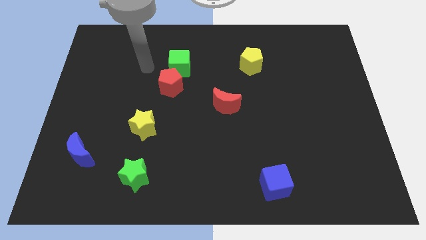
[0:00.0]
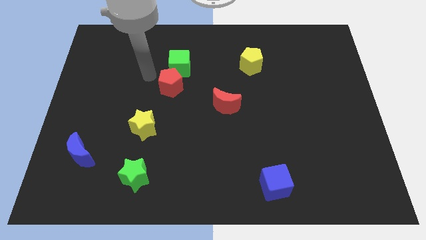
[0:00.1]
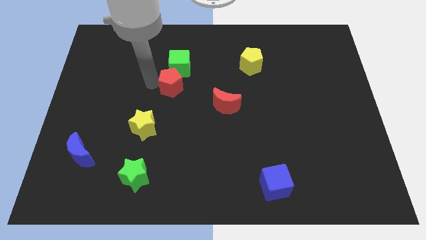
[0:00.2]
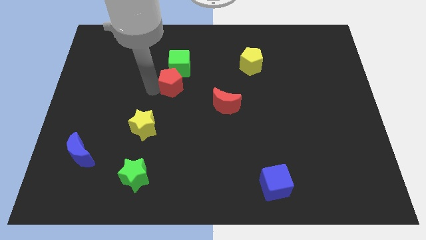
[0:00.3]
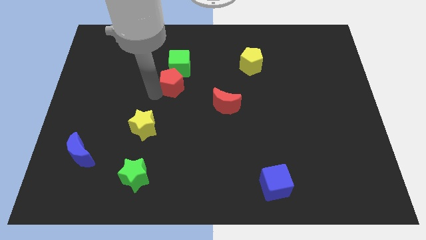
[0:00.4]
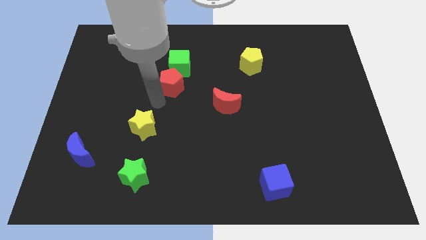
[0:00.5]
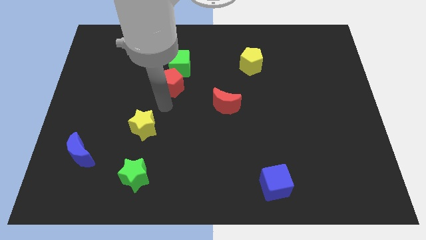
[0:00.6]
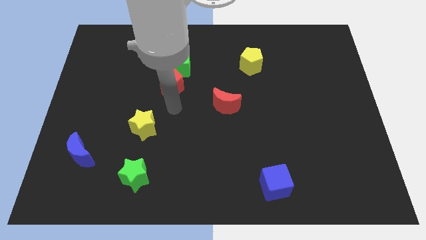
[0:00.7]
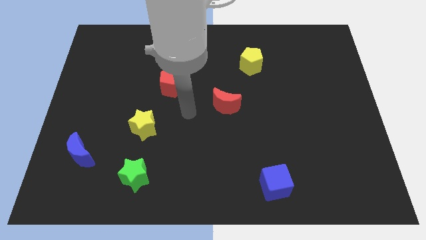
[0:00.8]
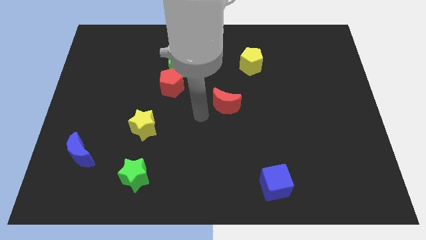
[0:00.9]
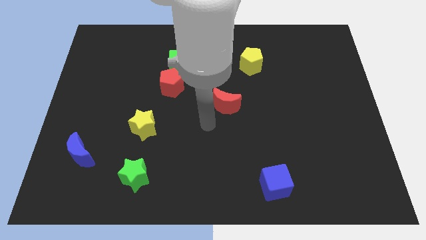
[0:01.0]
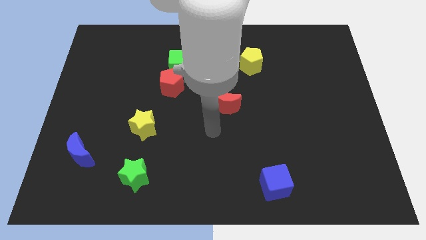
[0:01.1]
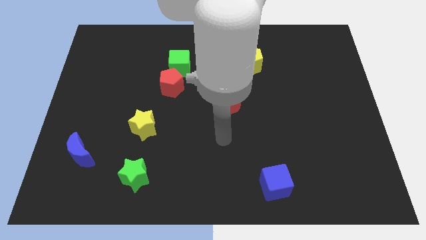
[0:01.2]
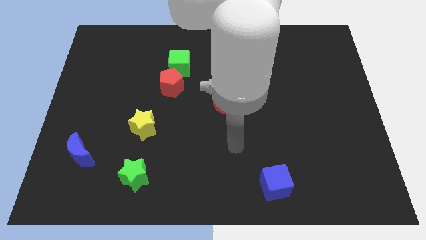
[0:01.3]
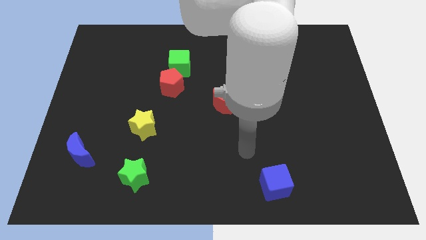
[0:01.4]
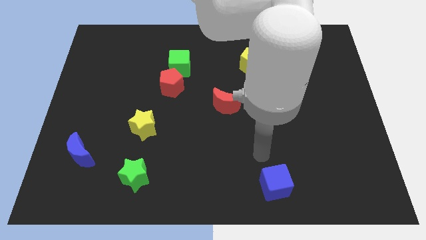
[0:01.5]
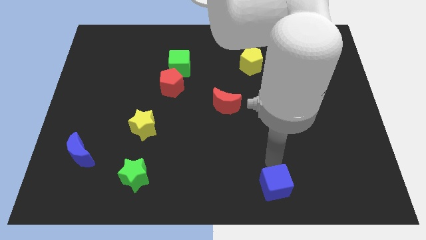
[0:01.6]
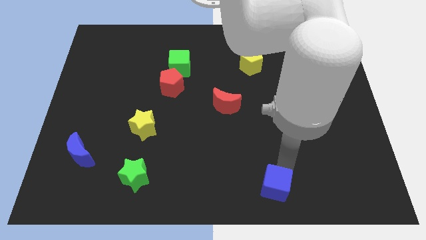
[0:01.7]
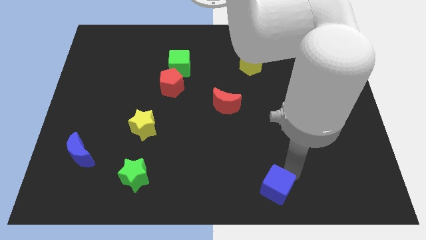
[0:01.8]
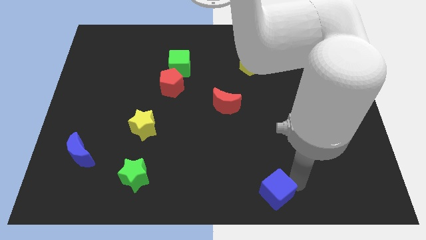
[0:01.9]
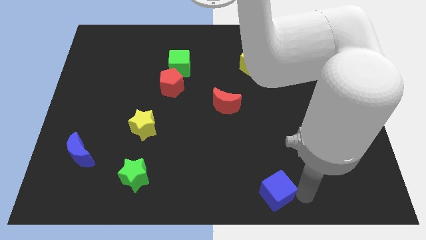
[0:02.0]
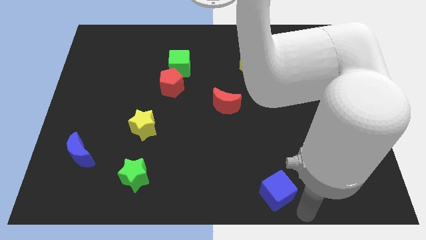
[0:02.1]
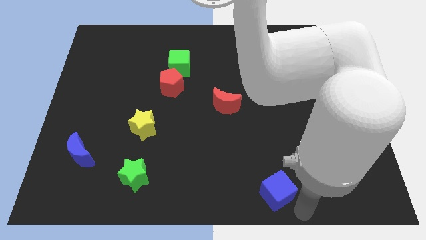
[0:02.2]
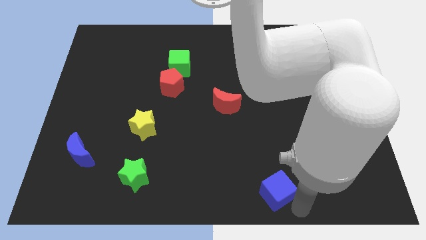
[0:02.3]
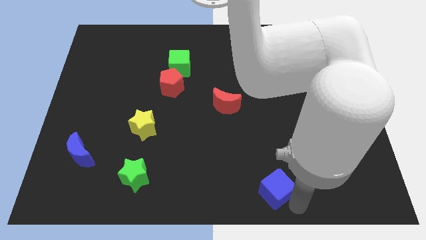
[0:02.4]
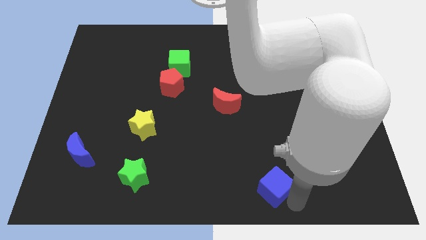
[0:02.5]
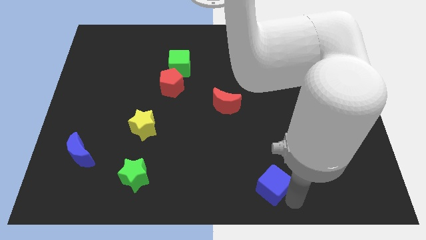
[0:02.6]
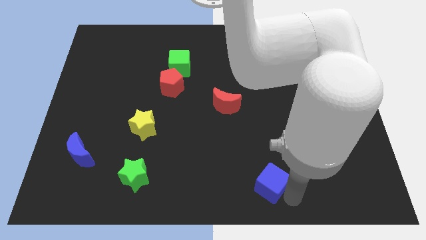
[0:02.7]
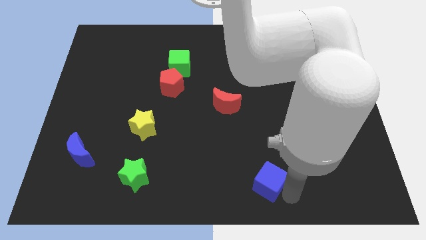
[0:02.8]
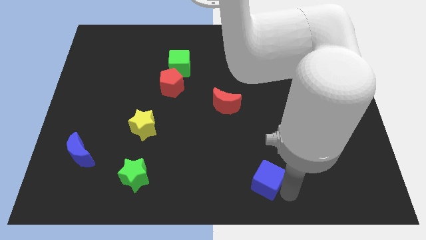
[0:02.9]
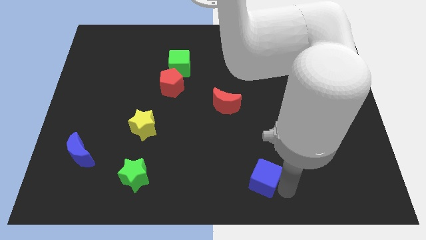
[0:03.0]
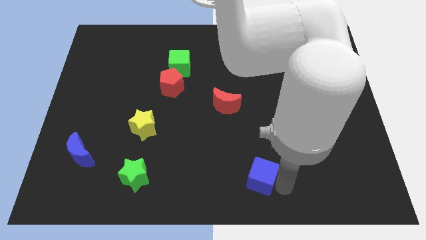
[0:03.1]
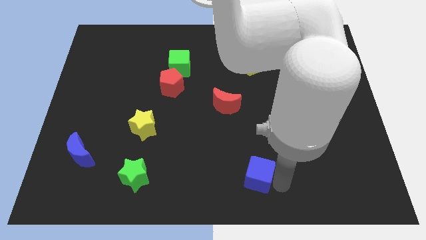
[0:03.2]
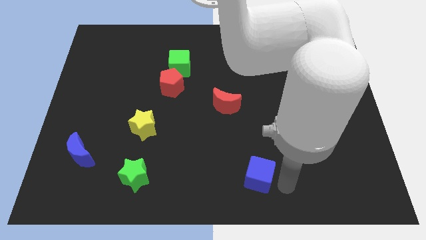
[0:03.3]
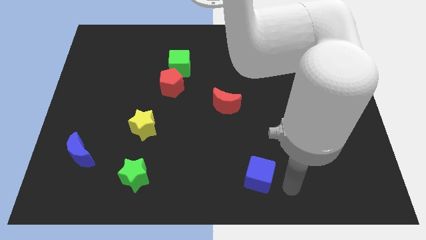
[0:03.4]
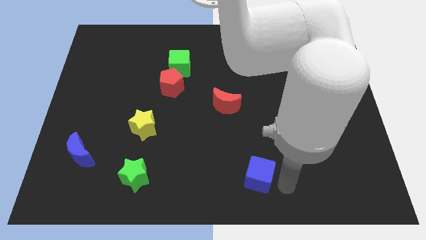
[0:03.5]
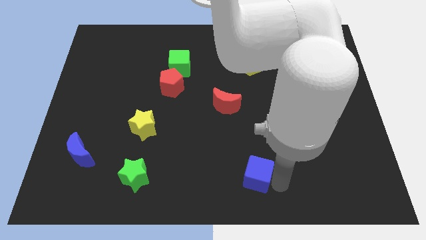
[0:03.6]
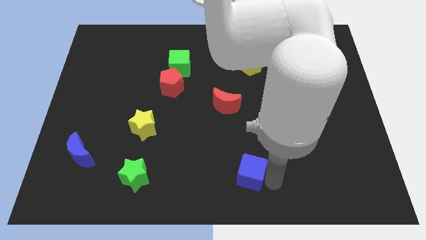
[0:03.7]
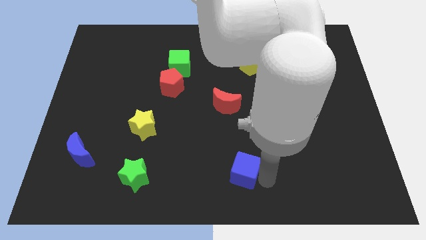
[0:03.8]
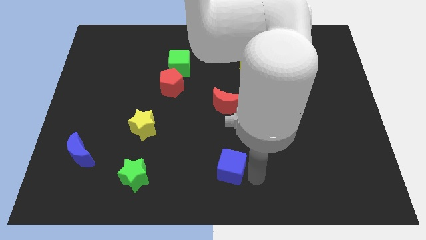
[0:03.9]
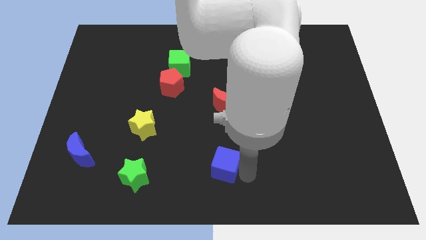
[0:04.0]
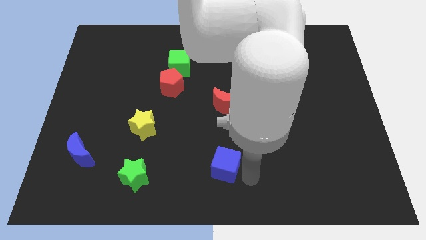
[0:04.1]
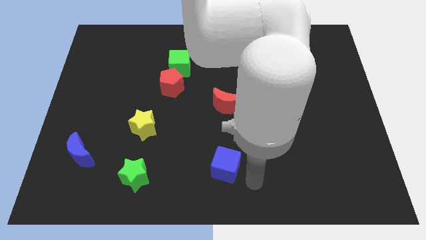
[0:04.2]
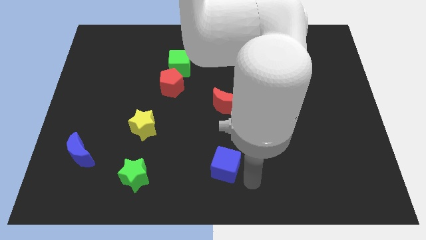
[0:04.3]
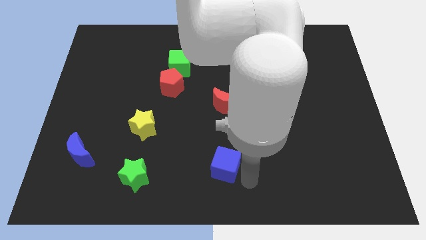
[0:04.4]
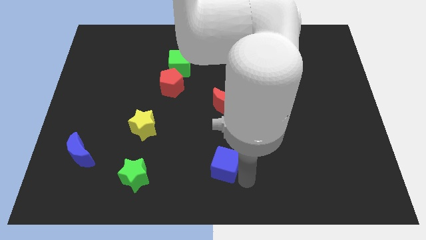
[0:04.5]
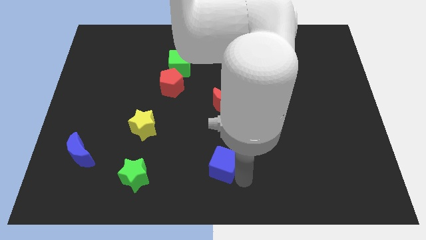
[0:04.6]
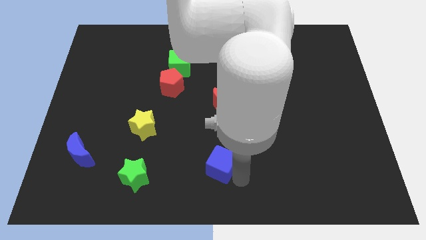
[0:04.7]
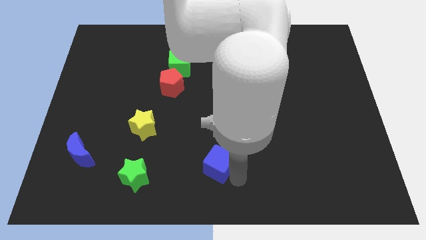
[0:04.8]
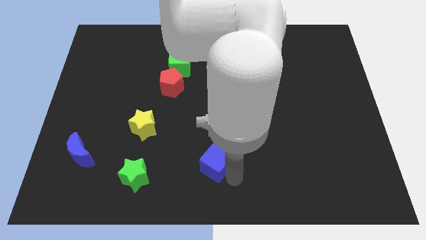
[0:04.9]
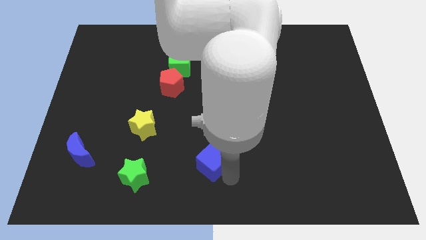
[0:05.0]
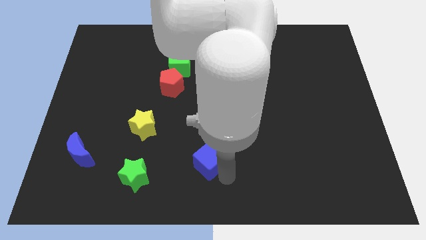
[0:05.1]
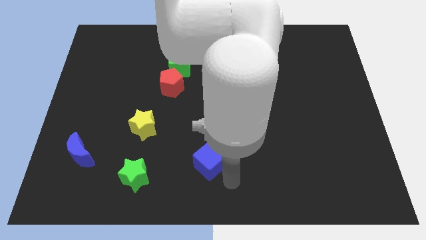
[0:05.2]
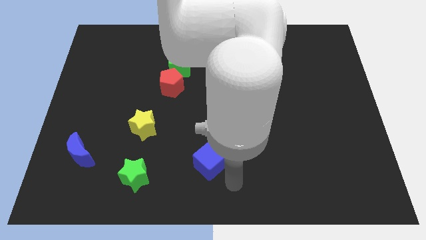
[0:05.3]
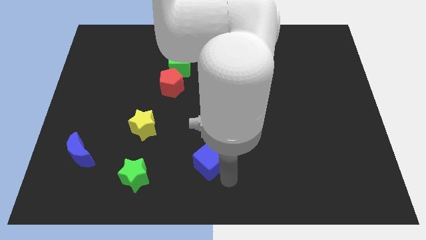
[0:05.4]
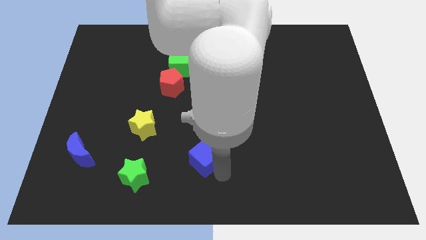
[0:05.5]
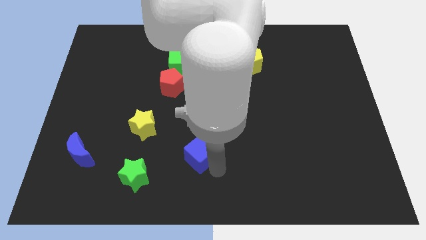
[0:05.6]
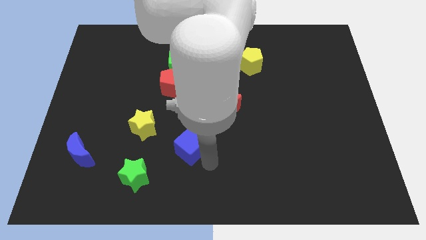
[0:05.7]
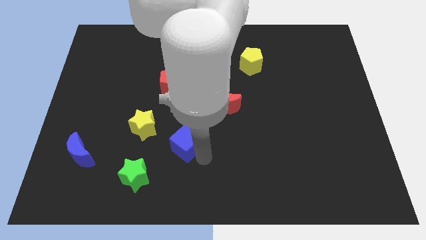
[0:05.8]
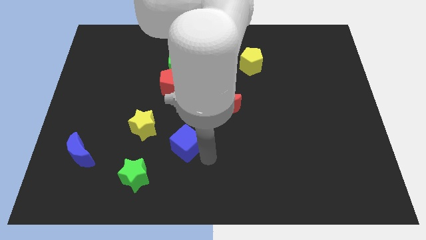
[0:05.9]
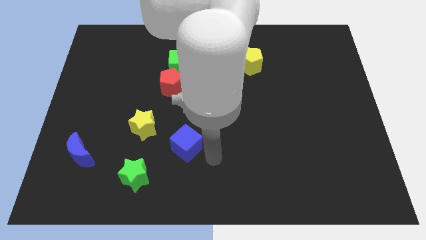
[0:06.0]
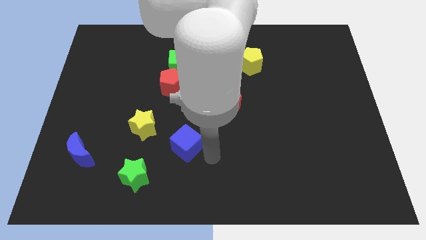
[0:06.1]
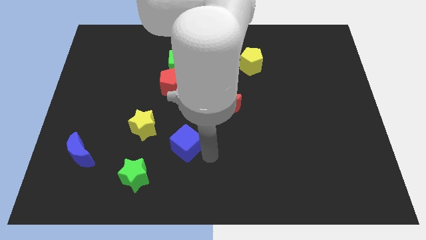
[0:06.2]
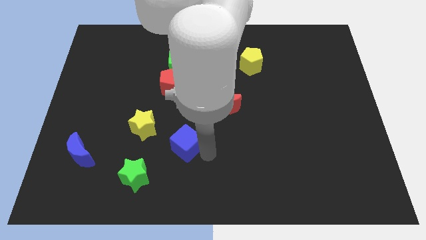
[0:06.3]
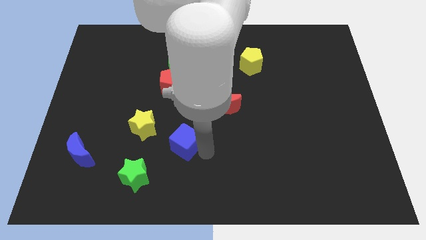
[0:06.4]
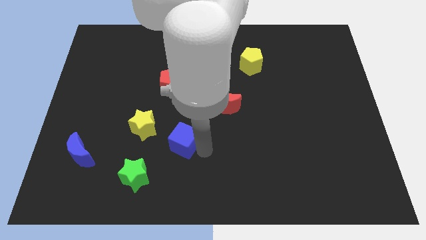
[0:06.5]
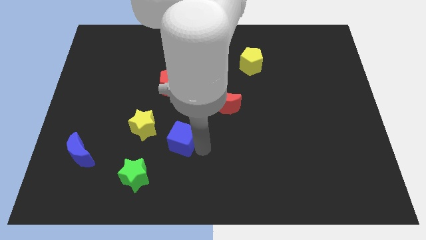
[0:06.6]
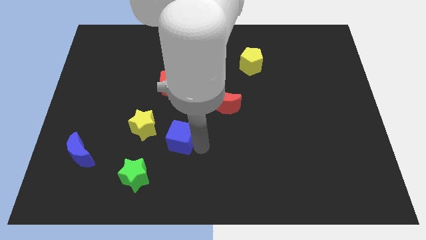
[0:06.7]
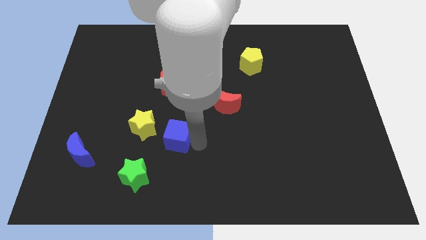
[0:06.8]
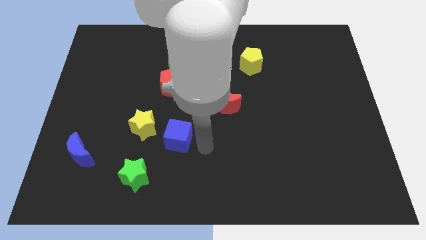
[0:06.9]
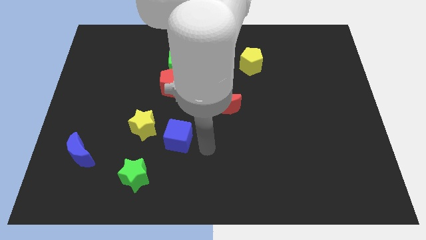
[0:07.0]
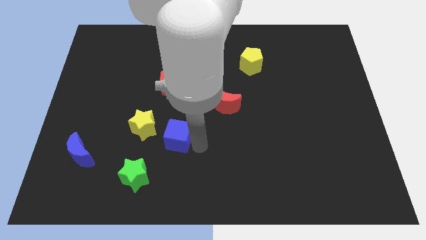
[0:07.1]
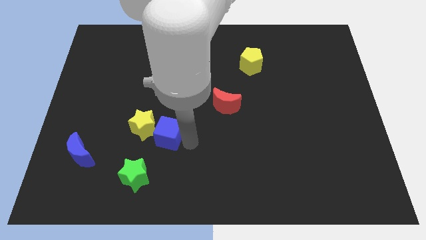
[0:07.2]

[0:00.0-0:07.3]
slide the blue cube towards the yellow star

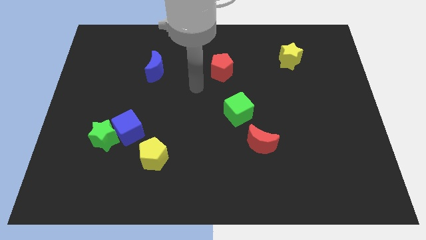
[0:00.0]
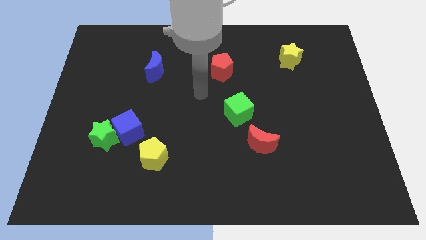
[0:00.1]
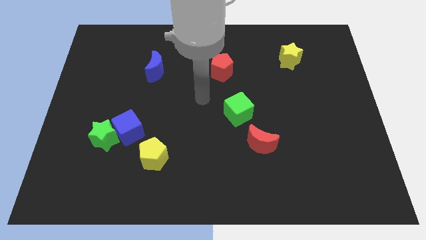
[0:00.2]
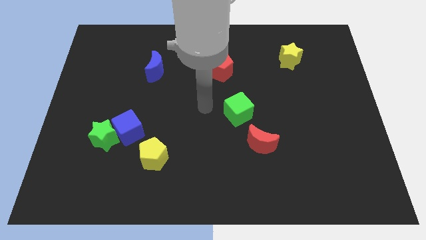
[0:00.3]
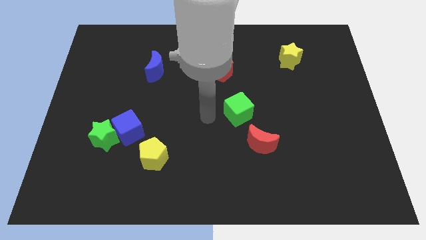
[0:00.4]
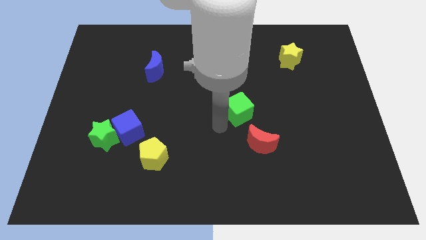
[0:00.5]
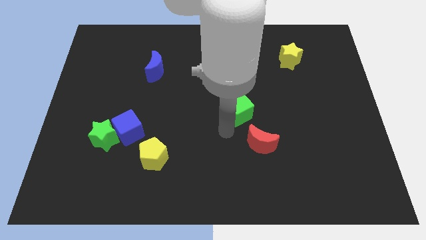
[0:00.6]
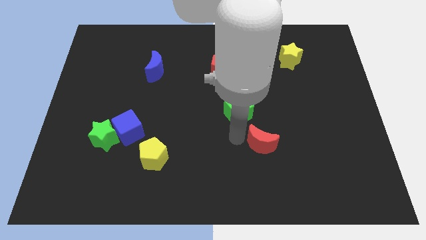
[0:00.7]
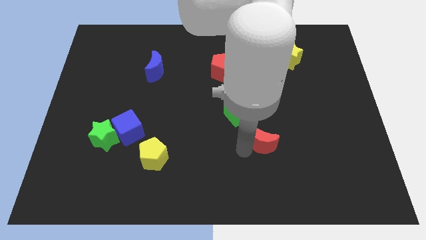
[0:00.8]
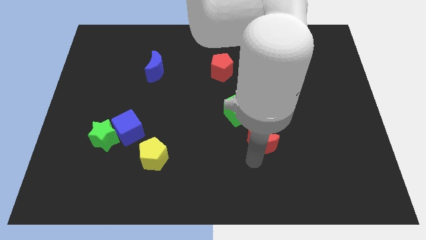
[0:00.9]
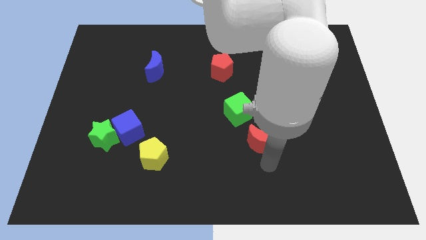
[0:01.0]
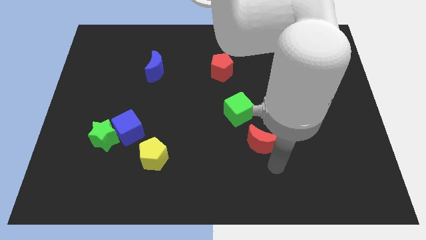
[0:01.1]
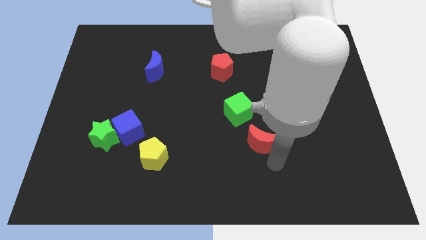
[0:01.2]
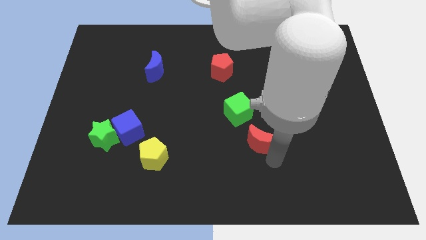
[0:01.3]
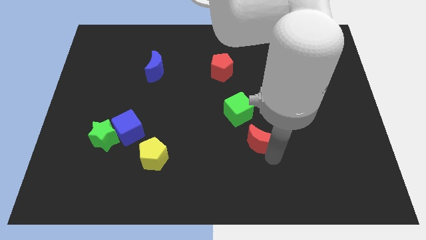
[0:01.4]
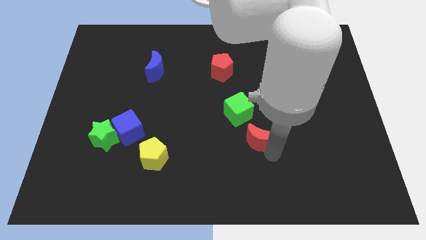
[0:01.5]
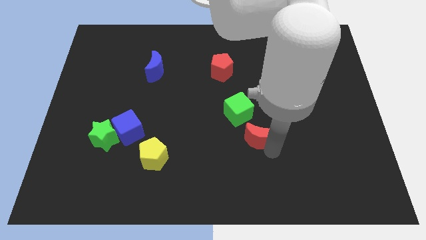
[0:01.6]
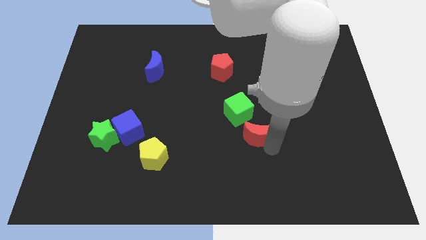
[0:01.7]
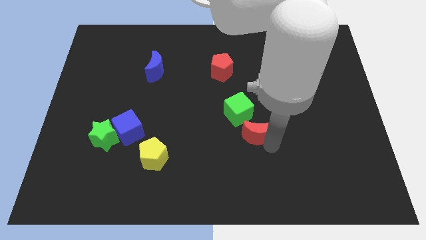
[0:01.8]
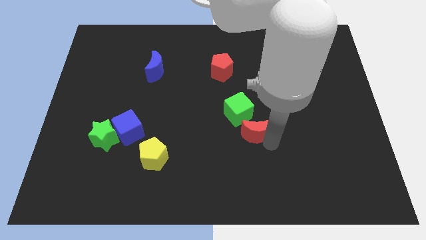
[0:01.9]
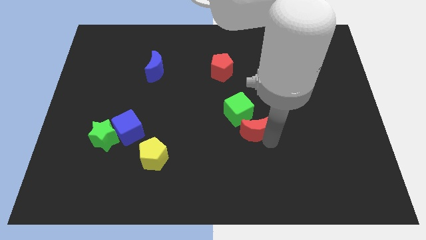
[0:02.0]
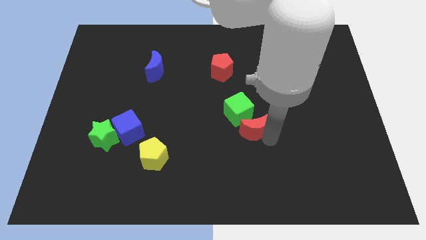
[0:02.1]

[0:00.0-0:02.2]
move the red moon close to the green cube
